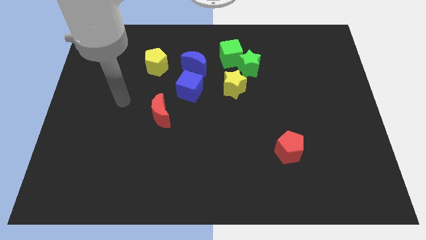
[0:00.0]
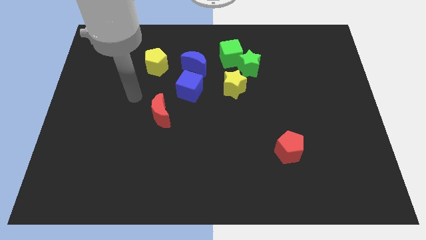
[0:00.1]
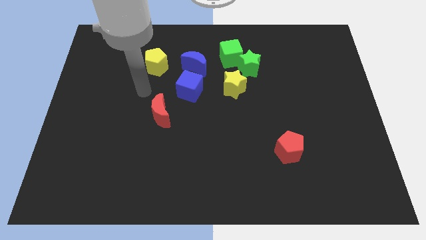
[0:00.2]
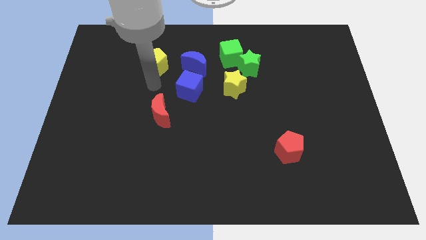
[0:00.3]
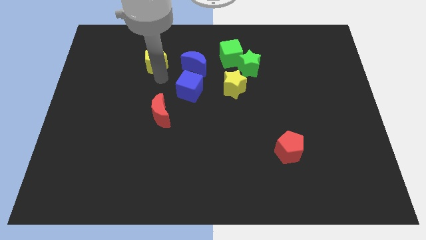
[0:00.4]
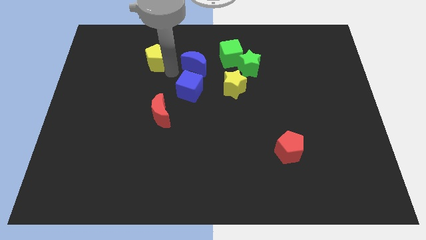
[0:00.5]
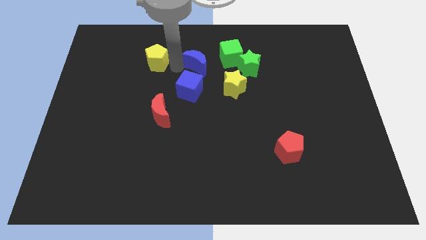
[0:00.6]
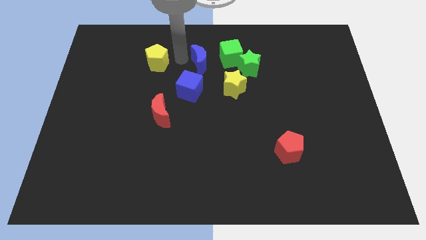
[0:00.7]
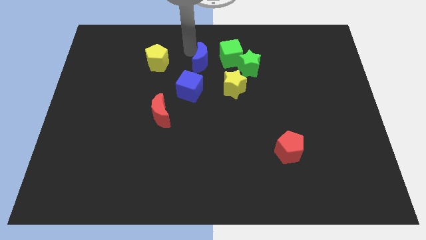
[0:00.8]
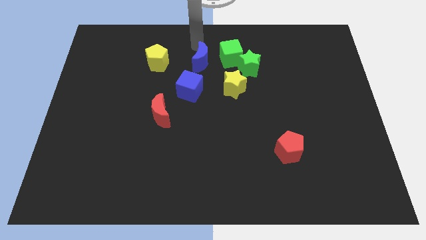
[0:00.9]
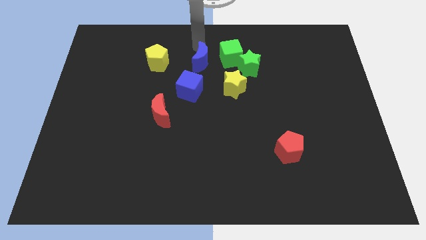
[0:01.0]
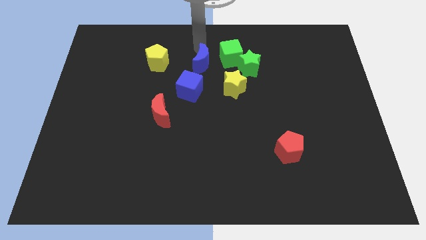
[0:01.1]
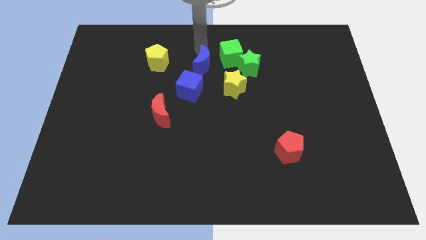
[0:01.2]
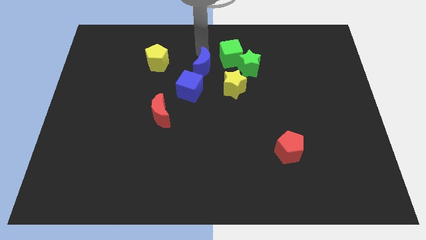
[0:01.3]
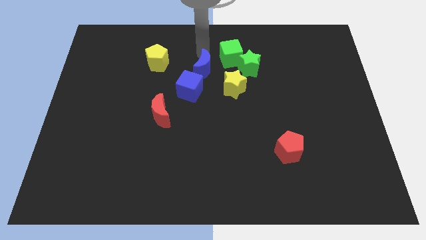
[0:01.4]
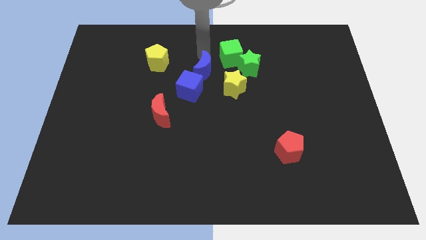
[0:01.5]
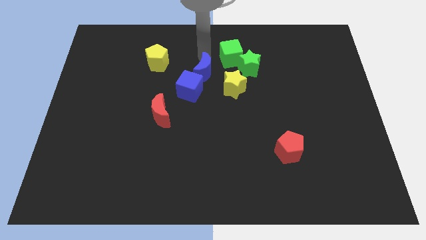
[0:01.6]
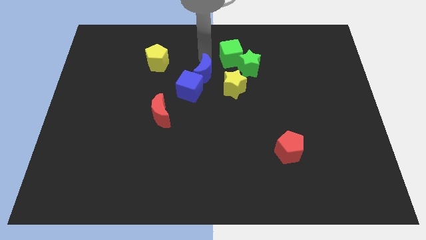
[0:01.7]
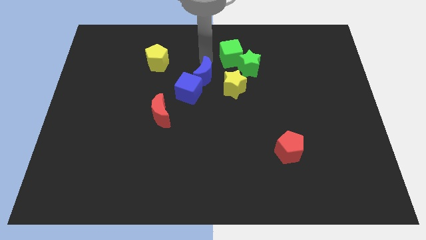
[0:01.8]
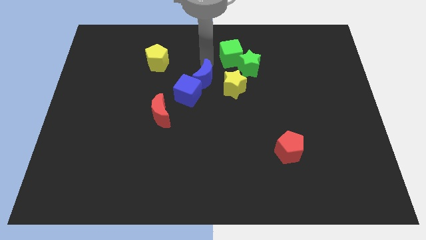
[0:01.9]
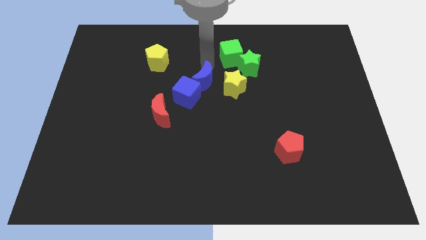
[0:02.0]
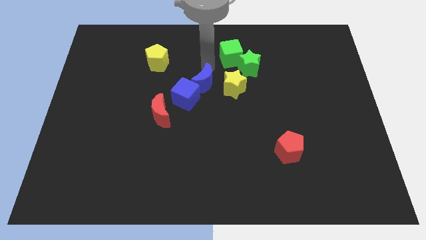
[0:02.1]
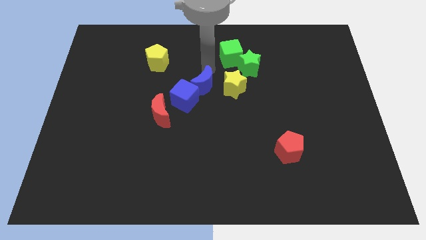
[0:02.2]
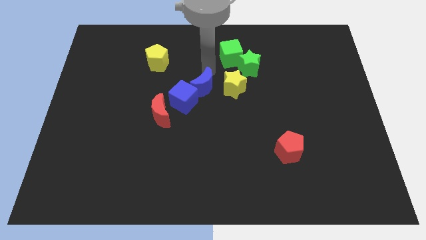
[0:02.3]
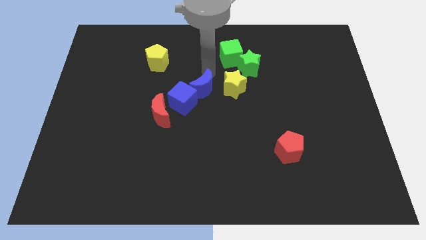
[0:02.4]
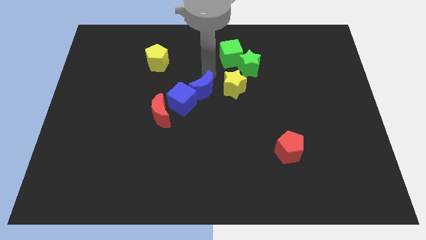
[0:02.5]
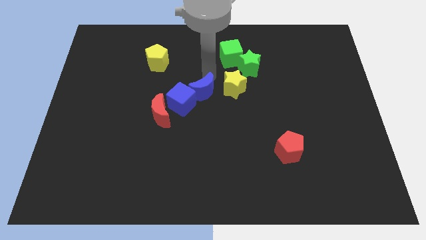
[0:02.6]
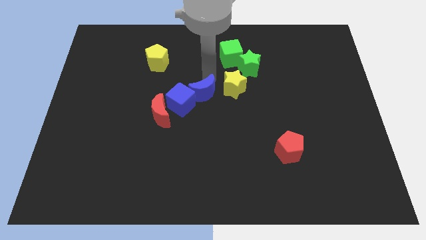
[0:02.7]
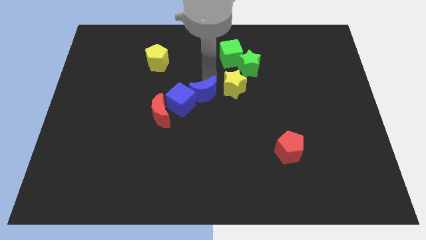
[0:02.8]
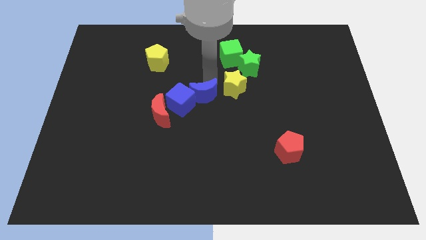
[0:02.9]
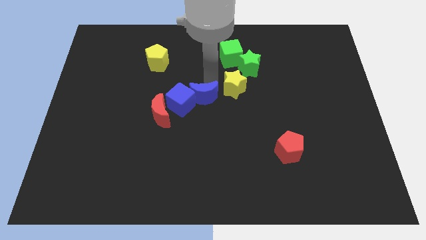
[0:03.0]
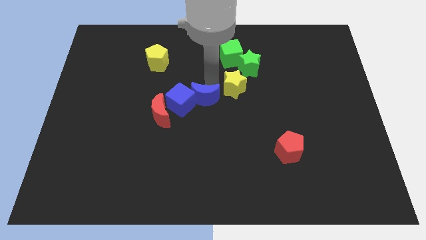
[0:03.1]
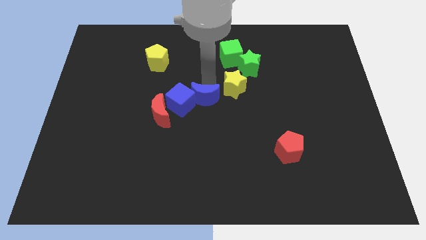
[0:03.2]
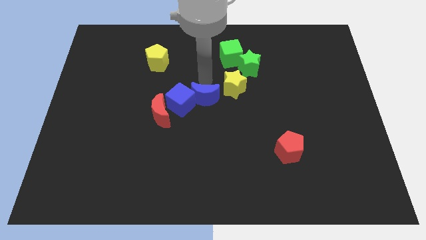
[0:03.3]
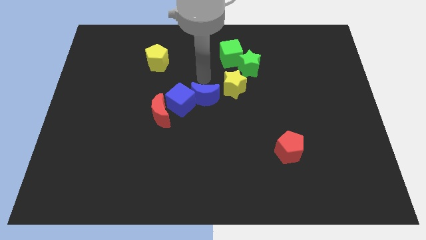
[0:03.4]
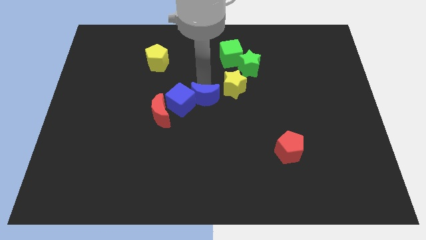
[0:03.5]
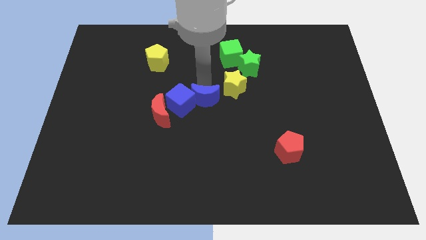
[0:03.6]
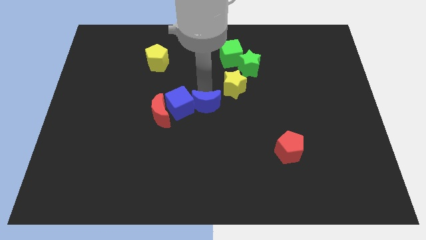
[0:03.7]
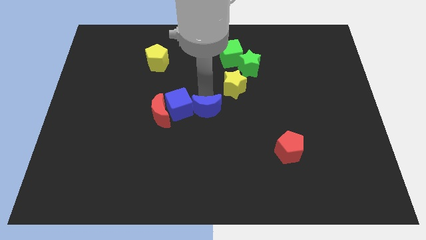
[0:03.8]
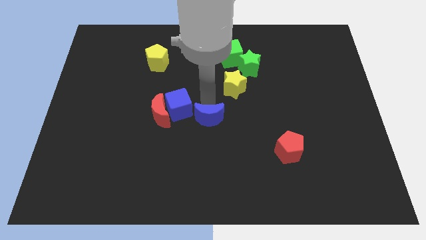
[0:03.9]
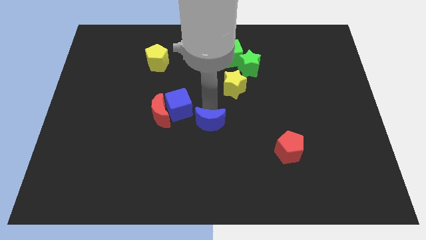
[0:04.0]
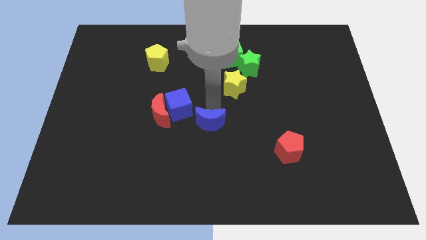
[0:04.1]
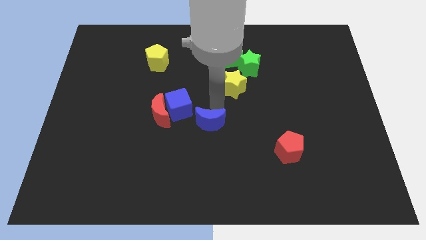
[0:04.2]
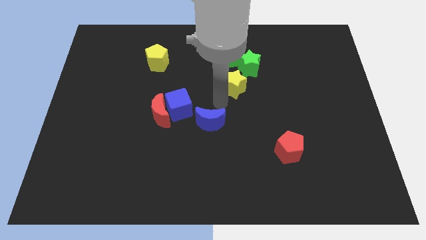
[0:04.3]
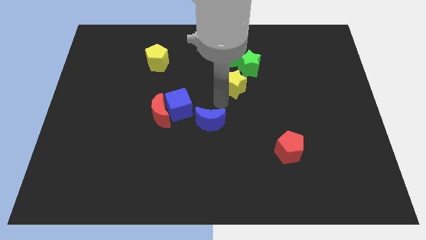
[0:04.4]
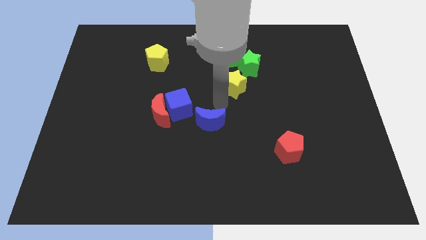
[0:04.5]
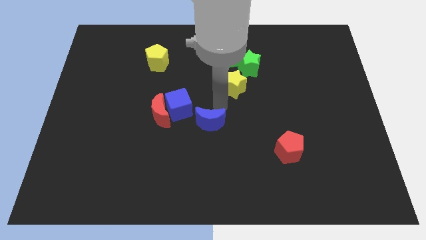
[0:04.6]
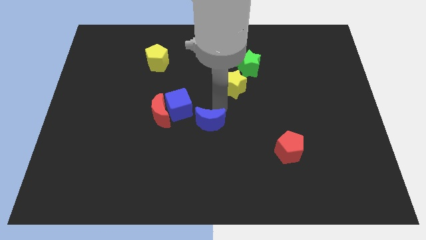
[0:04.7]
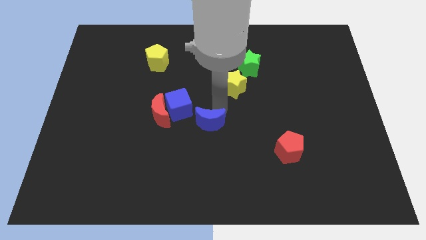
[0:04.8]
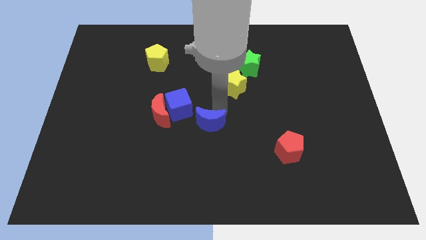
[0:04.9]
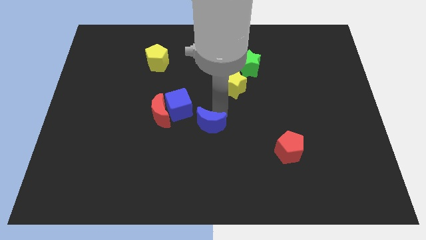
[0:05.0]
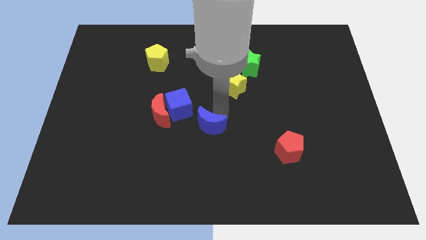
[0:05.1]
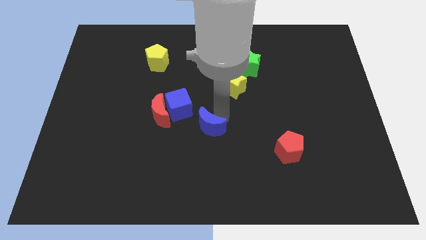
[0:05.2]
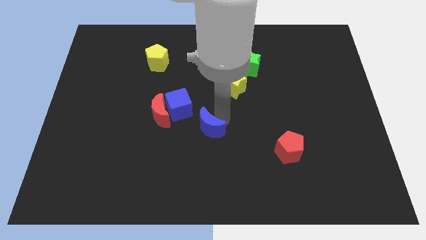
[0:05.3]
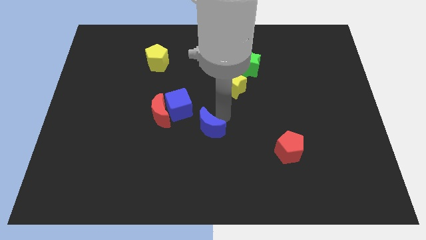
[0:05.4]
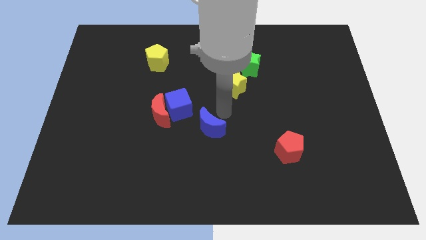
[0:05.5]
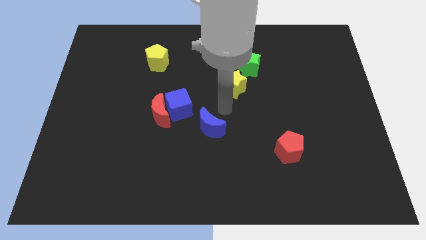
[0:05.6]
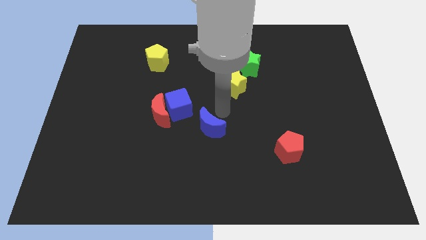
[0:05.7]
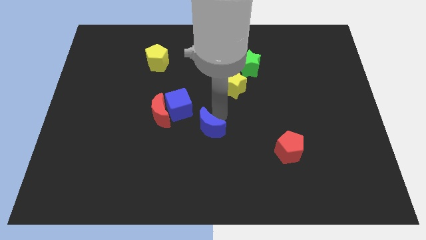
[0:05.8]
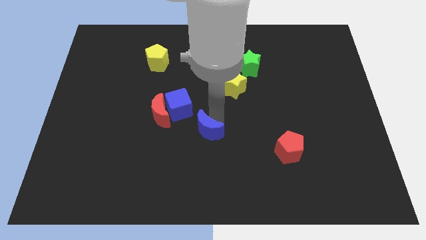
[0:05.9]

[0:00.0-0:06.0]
slide the blue moon downwards

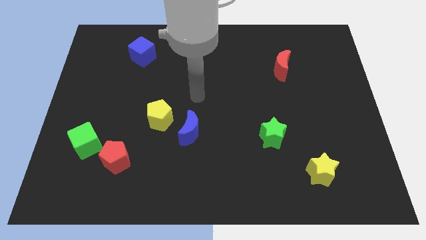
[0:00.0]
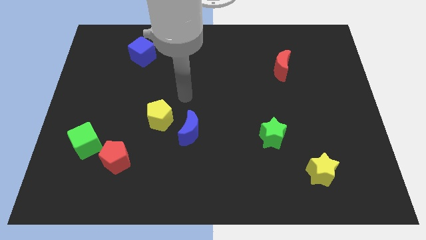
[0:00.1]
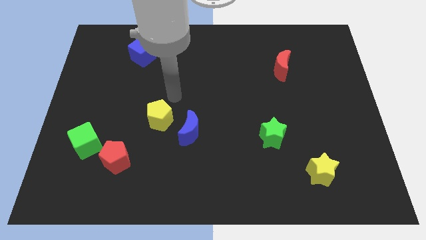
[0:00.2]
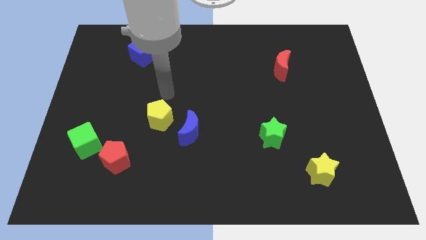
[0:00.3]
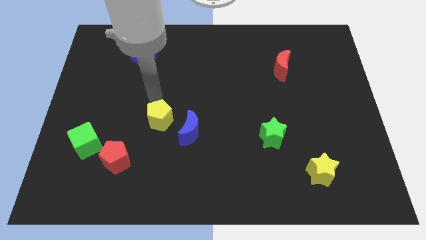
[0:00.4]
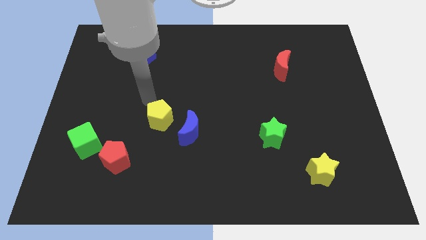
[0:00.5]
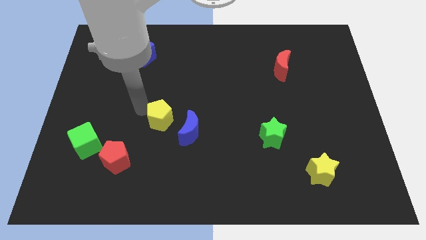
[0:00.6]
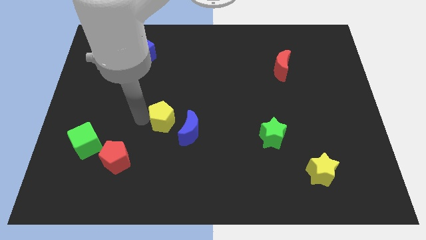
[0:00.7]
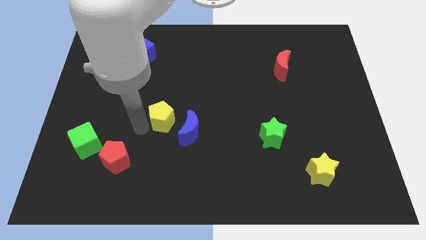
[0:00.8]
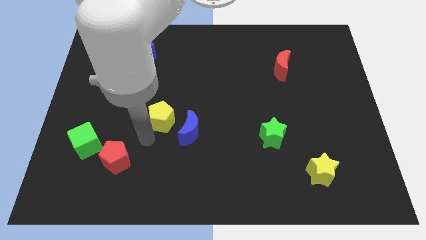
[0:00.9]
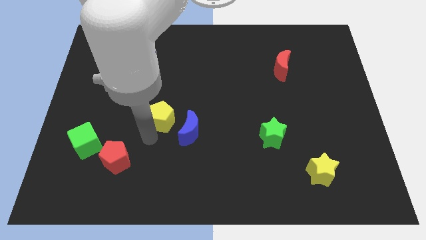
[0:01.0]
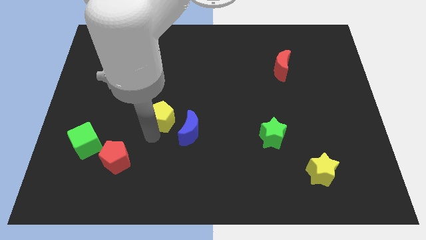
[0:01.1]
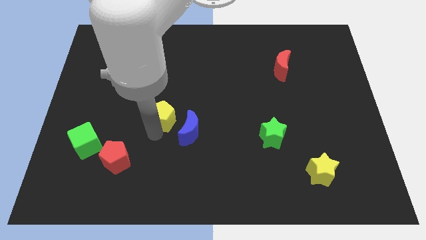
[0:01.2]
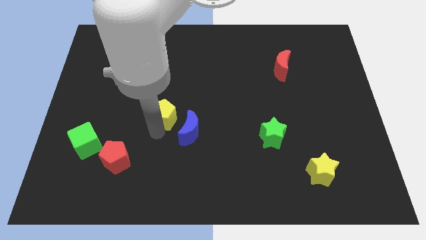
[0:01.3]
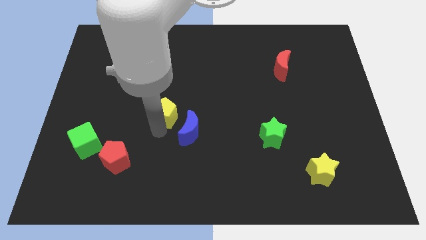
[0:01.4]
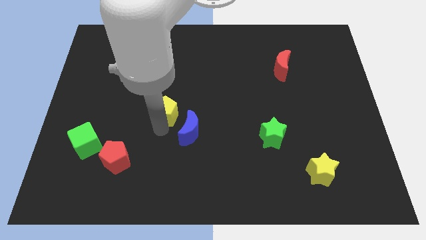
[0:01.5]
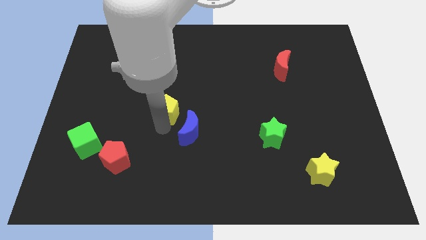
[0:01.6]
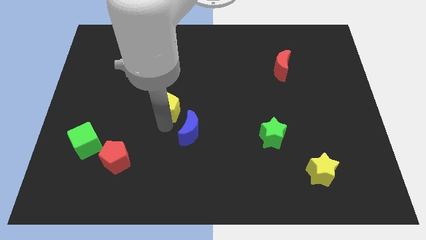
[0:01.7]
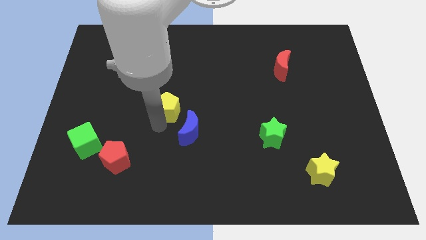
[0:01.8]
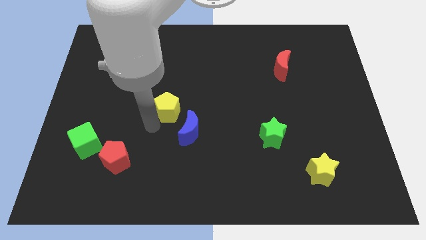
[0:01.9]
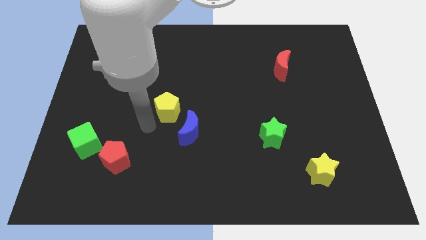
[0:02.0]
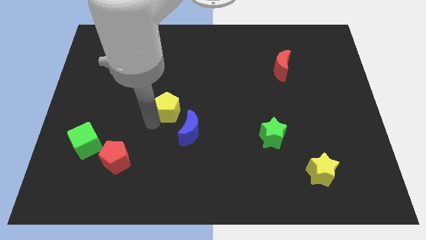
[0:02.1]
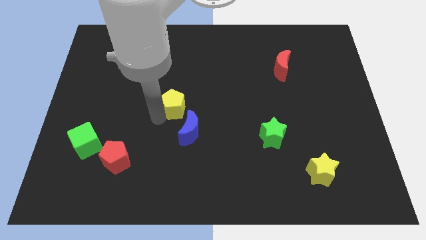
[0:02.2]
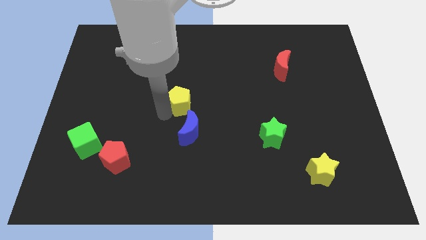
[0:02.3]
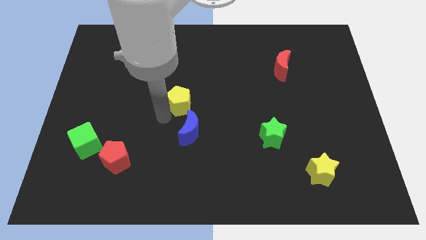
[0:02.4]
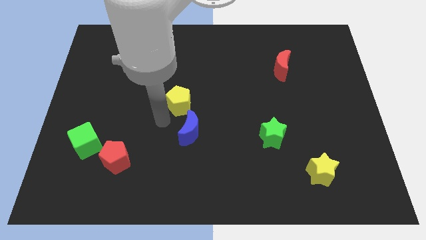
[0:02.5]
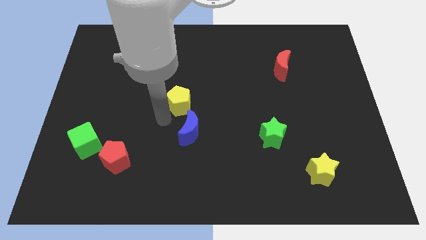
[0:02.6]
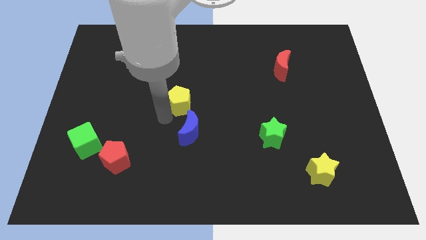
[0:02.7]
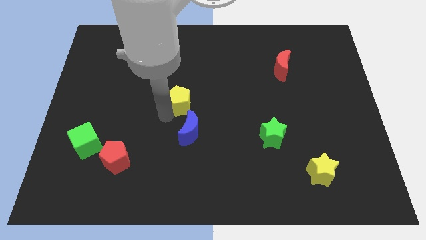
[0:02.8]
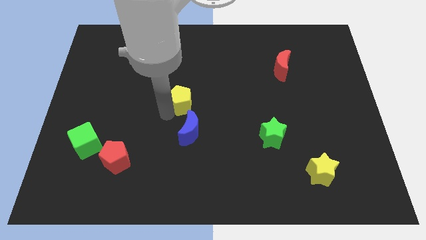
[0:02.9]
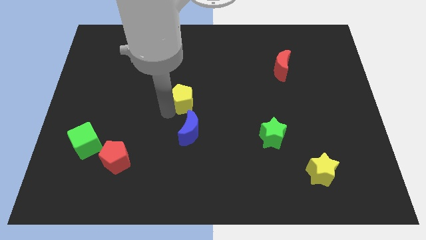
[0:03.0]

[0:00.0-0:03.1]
move the yellow pentagon somewhat up and right diagonally
